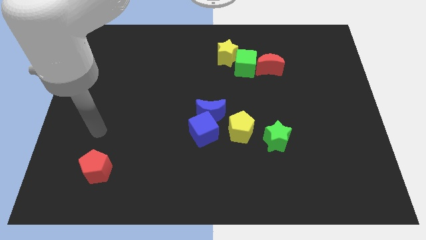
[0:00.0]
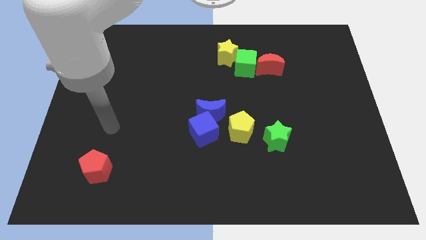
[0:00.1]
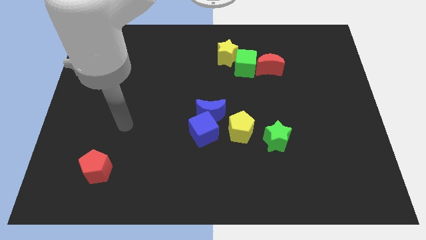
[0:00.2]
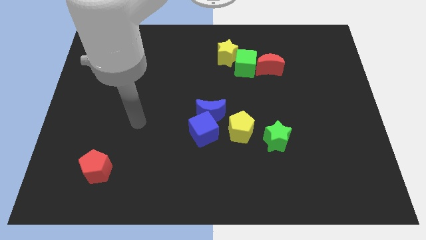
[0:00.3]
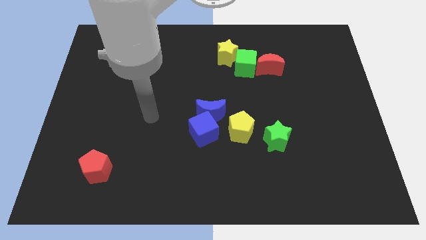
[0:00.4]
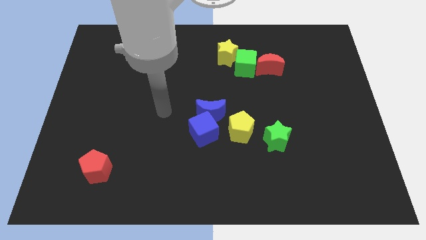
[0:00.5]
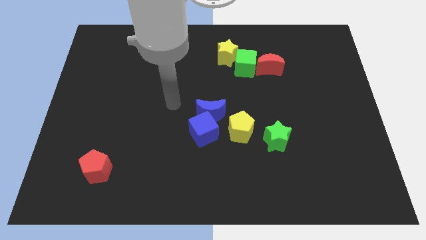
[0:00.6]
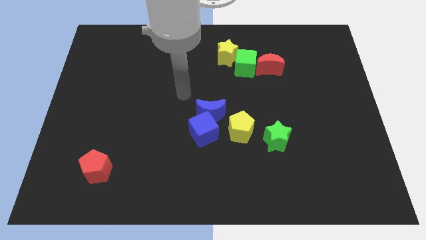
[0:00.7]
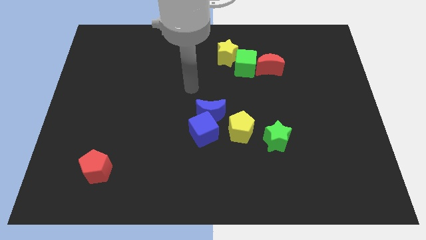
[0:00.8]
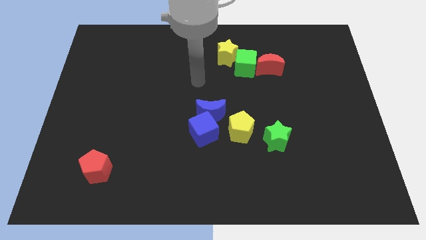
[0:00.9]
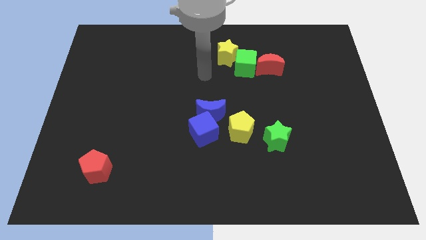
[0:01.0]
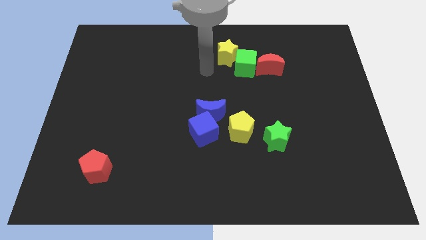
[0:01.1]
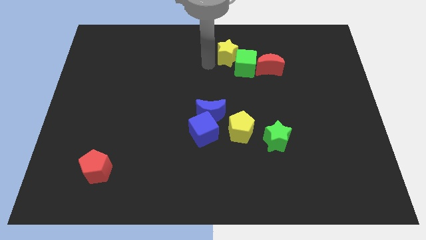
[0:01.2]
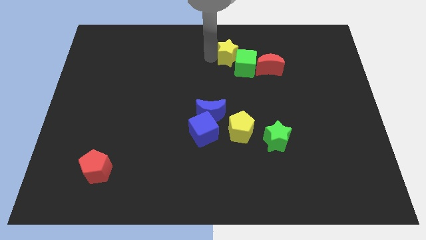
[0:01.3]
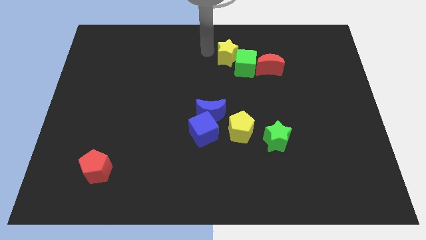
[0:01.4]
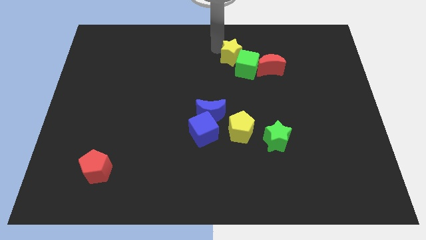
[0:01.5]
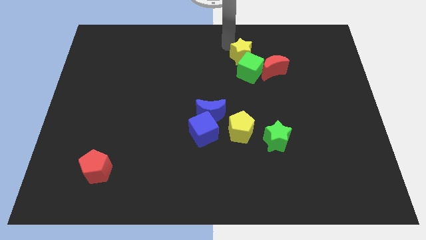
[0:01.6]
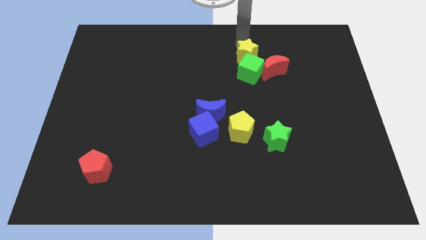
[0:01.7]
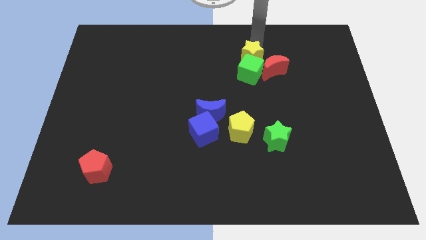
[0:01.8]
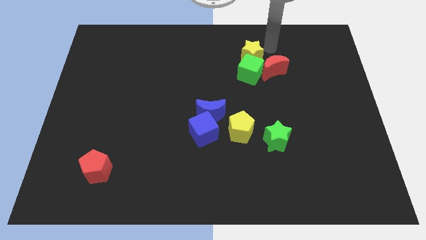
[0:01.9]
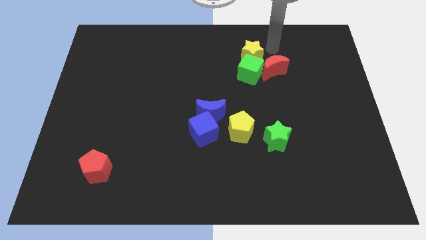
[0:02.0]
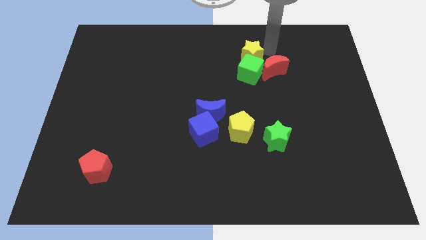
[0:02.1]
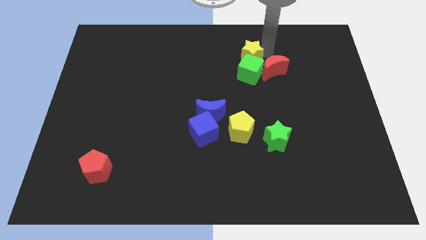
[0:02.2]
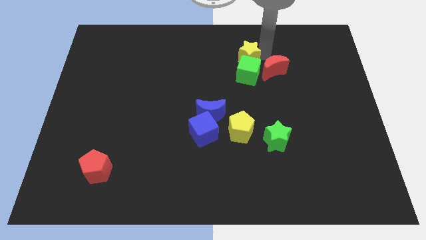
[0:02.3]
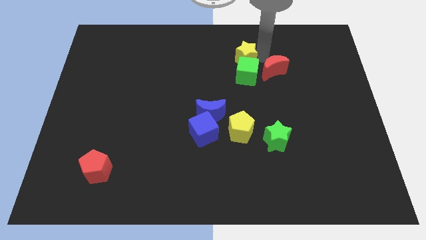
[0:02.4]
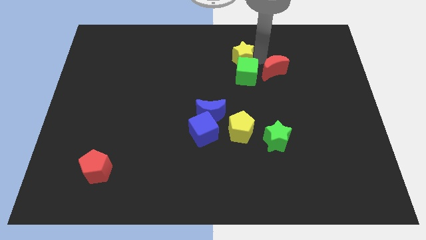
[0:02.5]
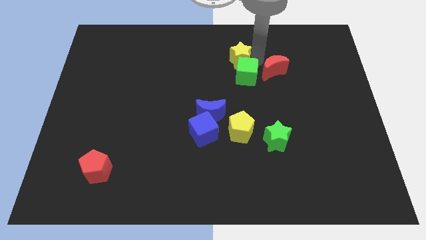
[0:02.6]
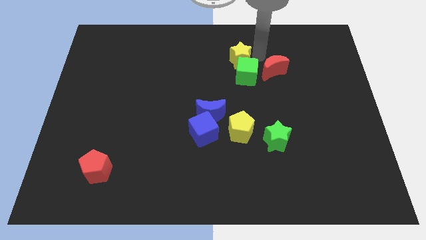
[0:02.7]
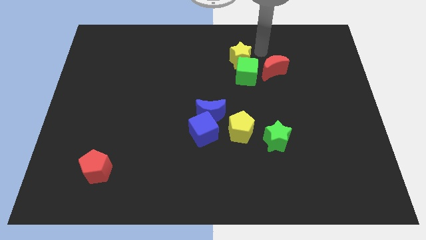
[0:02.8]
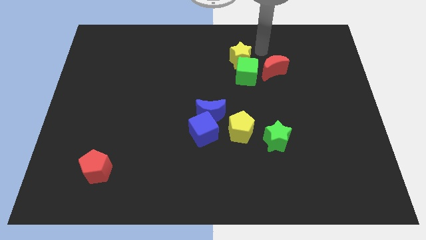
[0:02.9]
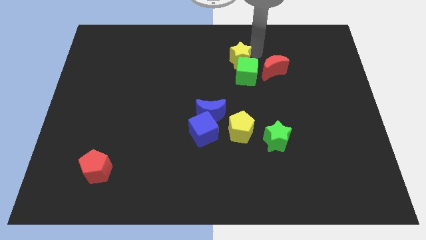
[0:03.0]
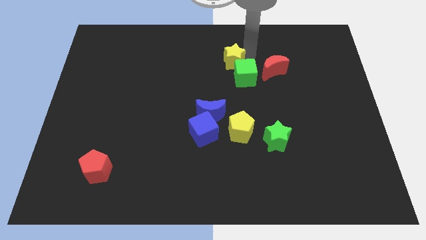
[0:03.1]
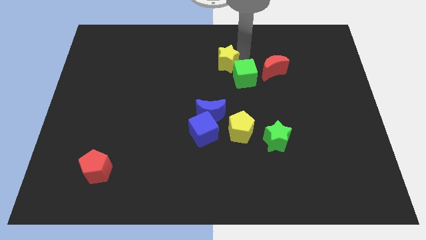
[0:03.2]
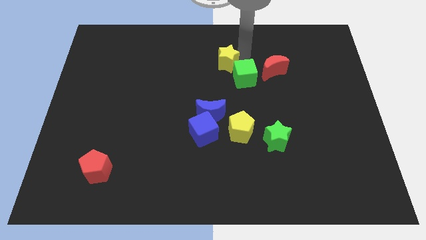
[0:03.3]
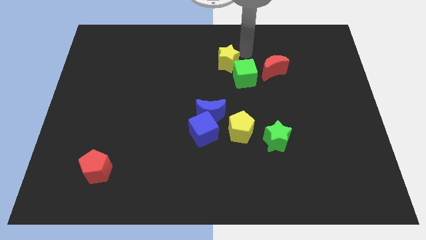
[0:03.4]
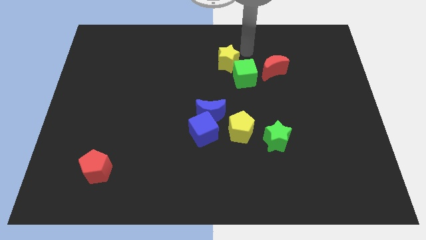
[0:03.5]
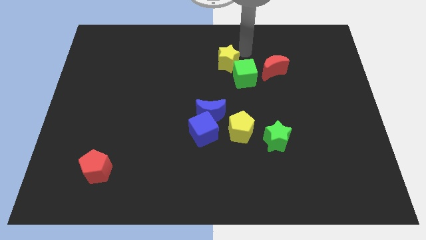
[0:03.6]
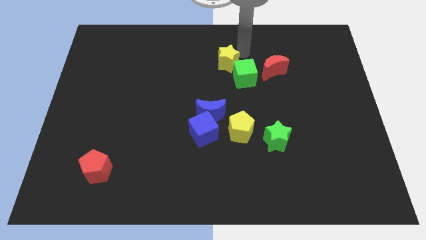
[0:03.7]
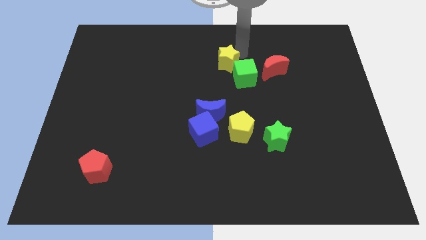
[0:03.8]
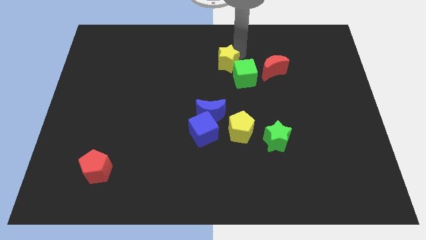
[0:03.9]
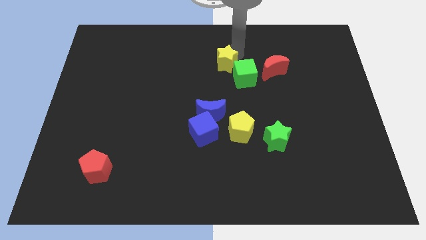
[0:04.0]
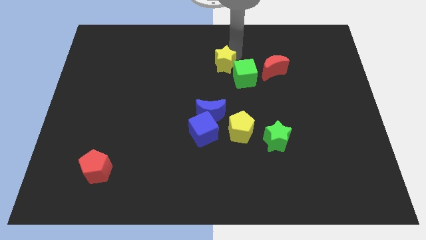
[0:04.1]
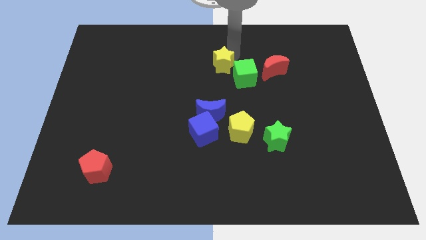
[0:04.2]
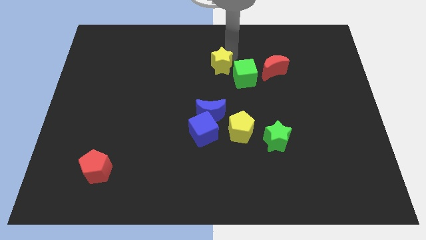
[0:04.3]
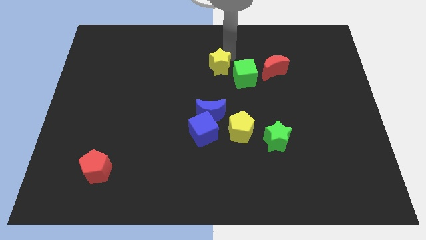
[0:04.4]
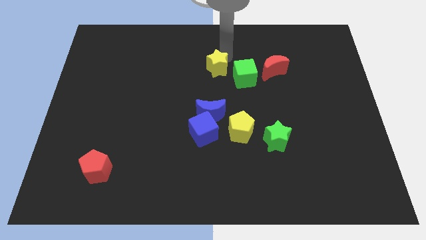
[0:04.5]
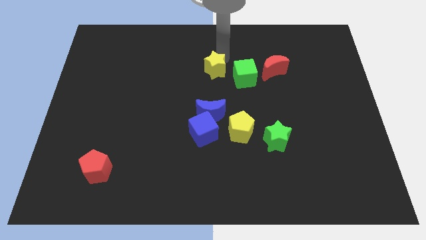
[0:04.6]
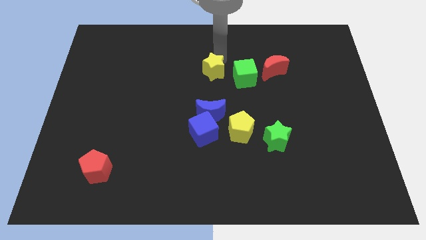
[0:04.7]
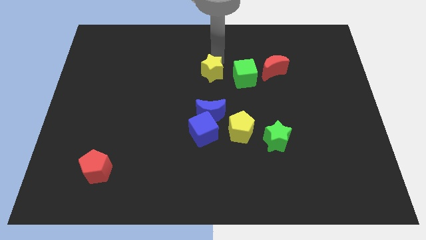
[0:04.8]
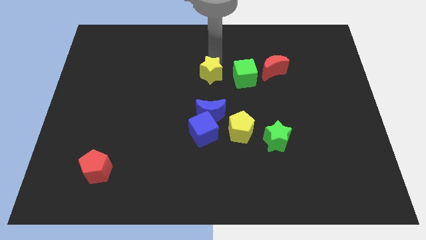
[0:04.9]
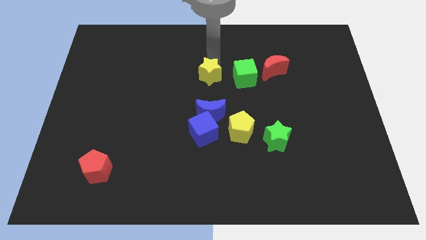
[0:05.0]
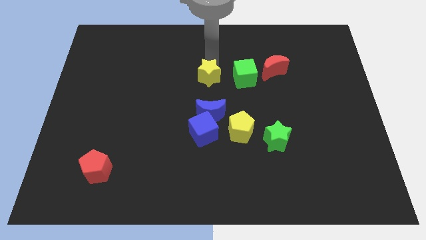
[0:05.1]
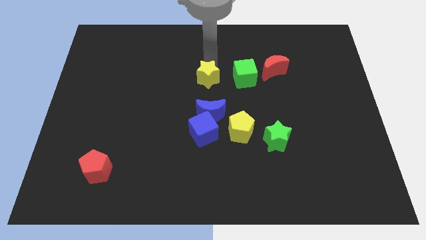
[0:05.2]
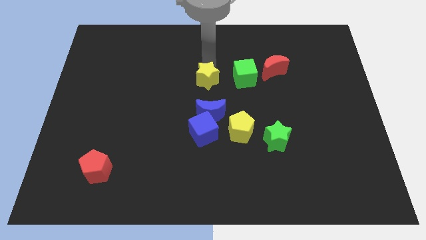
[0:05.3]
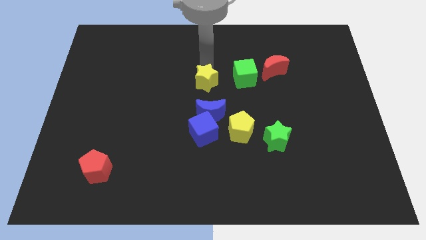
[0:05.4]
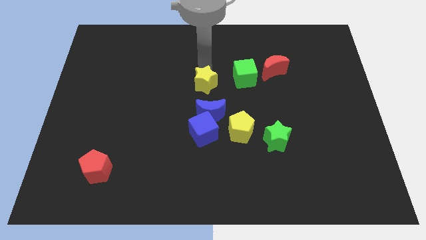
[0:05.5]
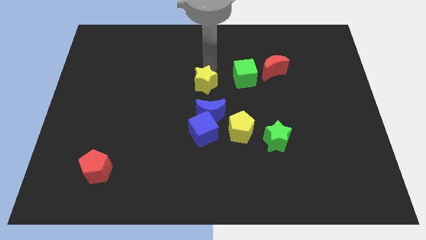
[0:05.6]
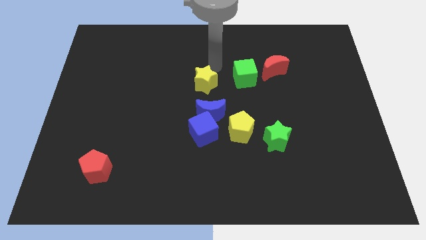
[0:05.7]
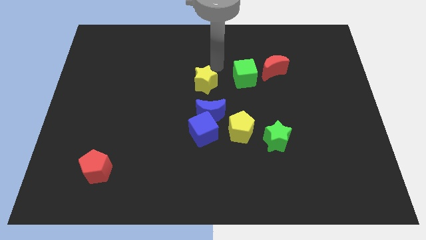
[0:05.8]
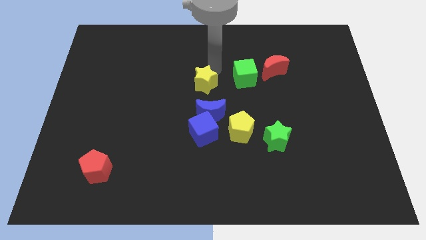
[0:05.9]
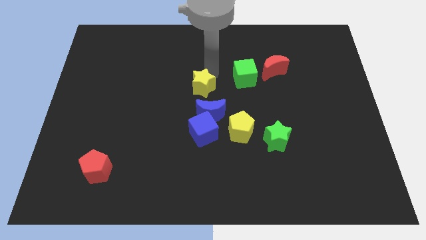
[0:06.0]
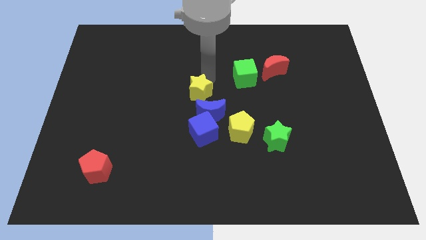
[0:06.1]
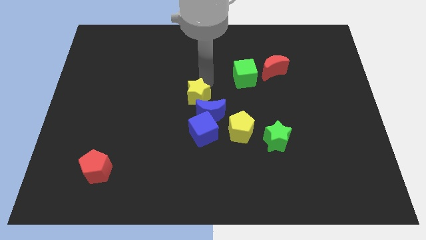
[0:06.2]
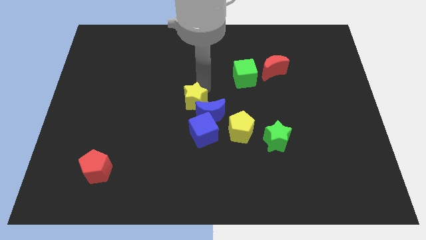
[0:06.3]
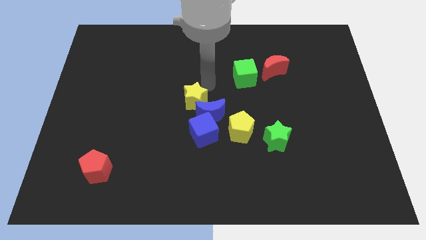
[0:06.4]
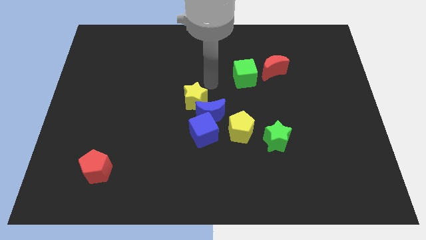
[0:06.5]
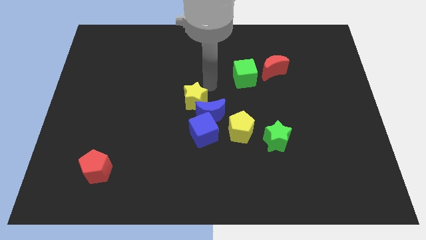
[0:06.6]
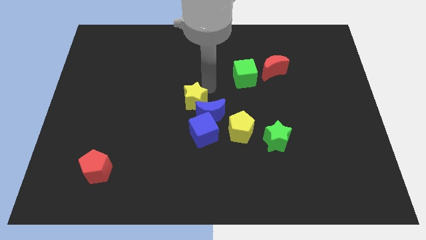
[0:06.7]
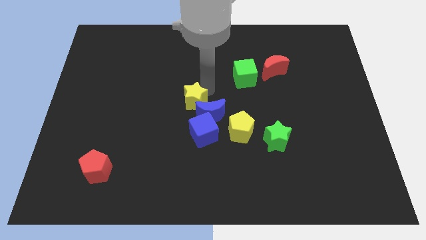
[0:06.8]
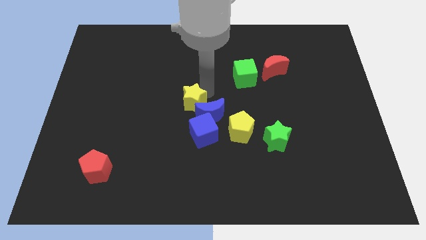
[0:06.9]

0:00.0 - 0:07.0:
put the yellow star diagonally up and to the left of the blue cube

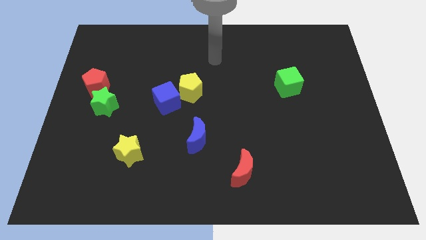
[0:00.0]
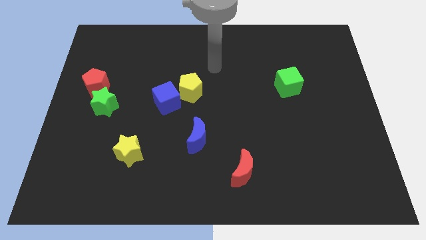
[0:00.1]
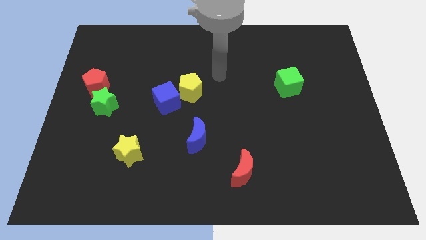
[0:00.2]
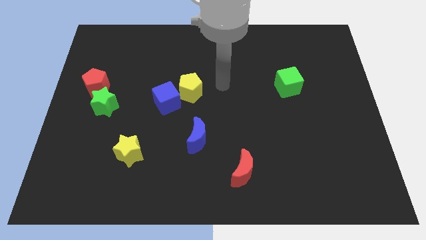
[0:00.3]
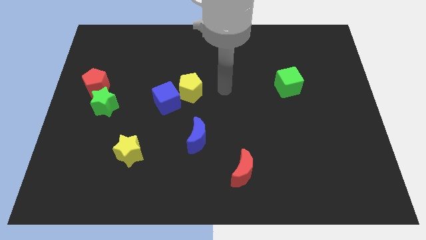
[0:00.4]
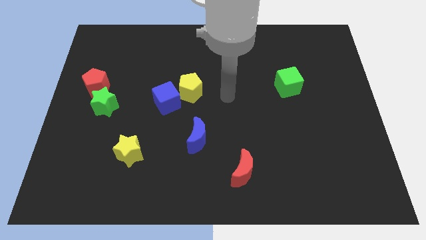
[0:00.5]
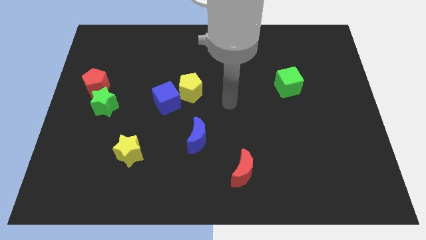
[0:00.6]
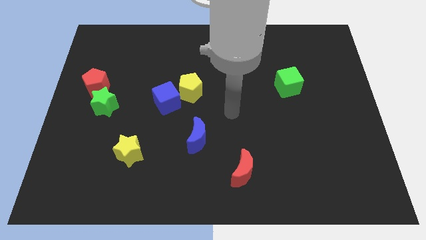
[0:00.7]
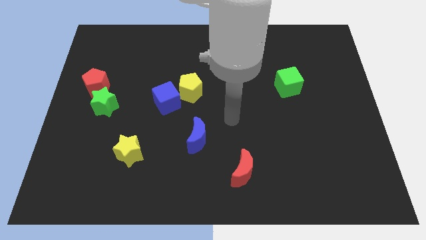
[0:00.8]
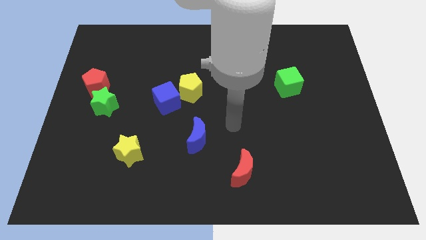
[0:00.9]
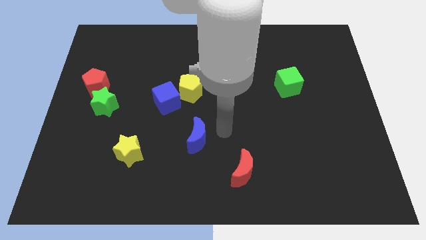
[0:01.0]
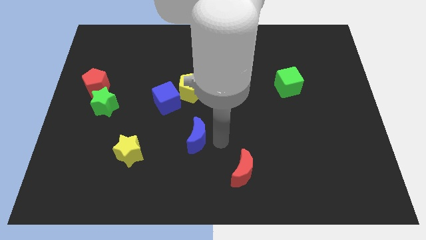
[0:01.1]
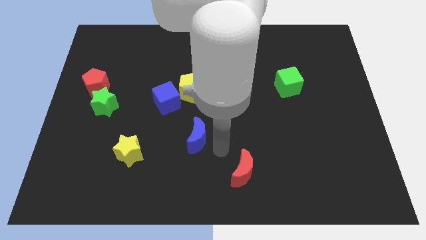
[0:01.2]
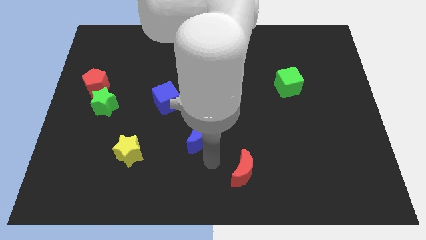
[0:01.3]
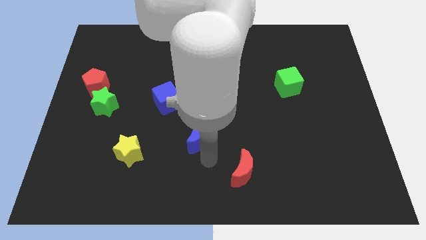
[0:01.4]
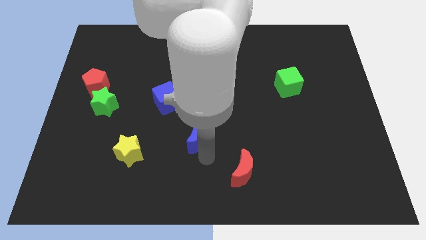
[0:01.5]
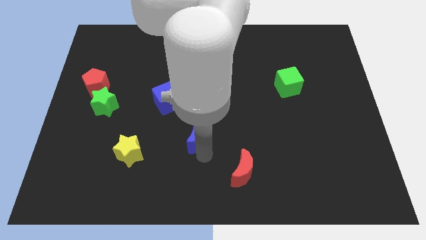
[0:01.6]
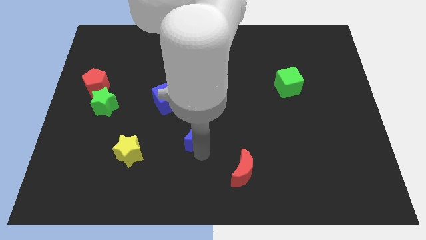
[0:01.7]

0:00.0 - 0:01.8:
push the blue moon to the bottom right side of the blue cube
